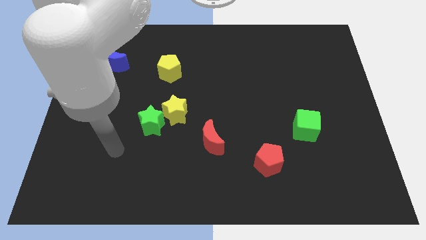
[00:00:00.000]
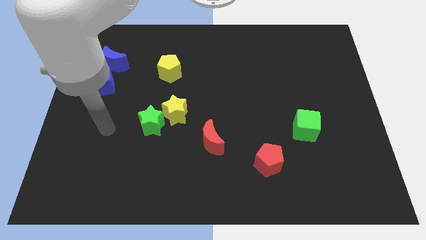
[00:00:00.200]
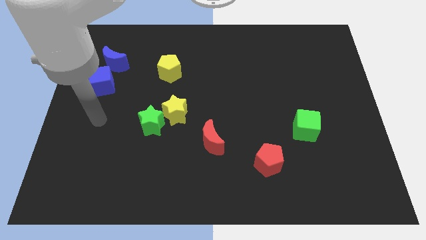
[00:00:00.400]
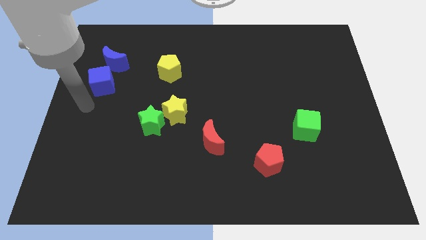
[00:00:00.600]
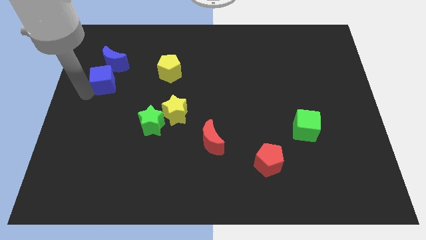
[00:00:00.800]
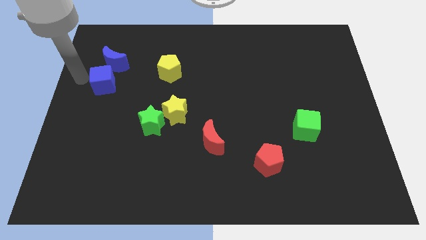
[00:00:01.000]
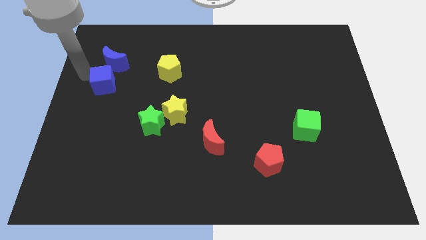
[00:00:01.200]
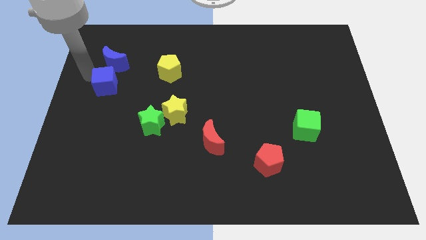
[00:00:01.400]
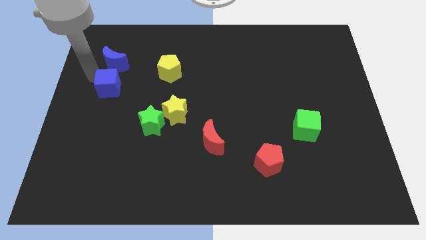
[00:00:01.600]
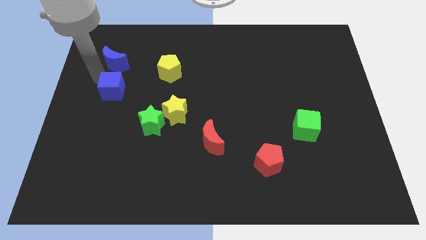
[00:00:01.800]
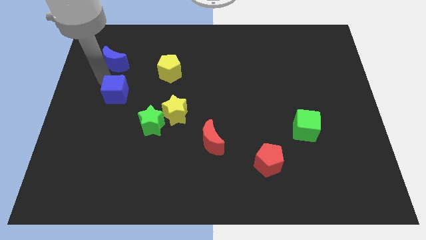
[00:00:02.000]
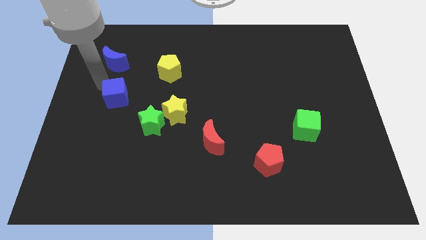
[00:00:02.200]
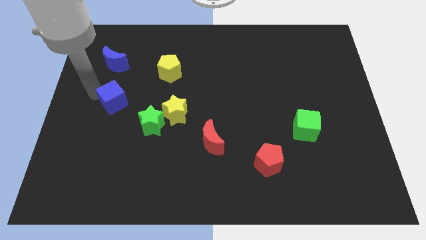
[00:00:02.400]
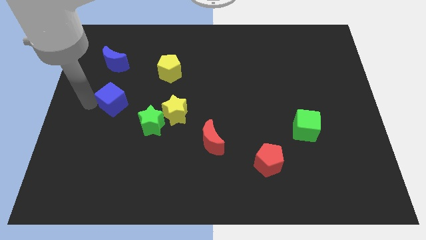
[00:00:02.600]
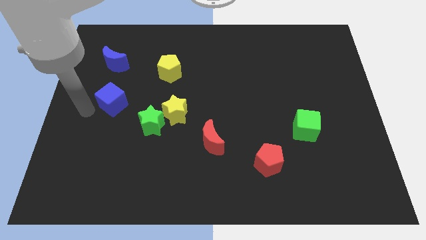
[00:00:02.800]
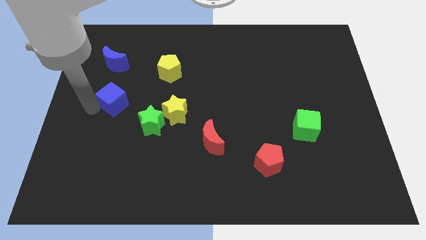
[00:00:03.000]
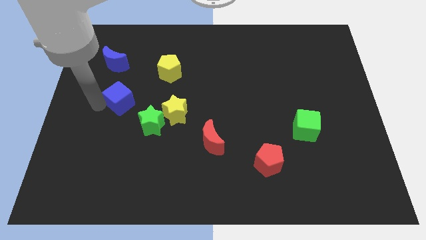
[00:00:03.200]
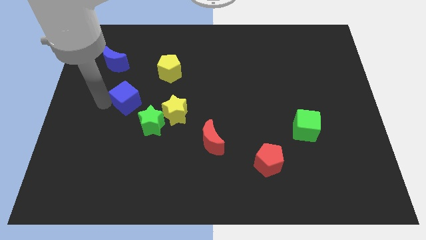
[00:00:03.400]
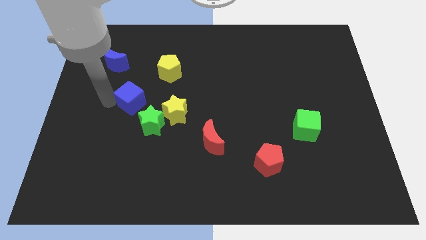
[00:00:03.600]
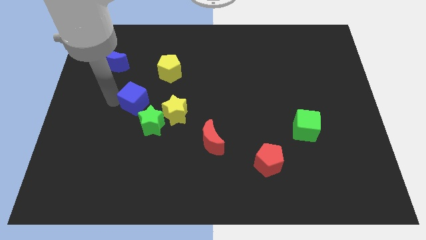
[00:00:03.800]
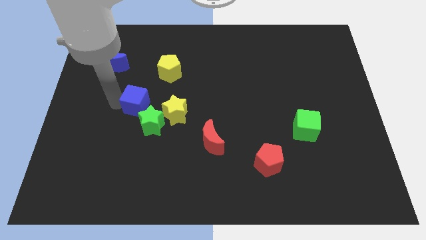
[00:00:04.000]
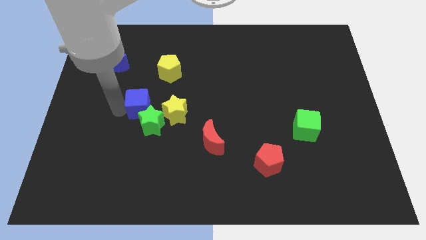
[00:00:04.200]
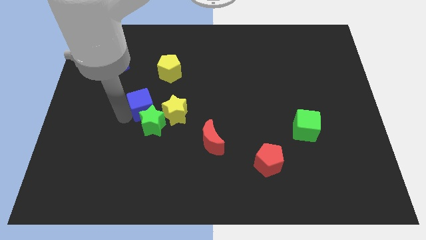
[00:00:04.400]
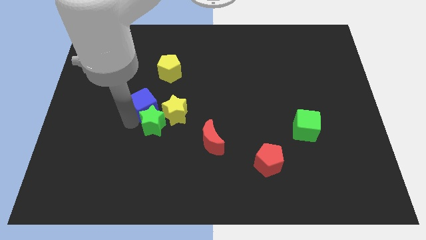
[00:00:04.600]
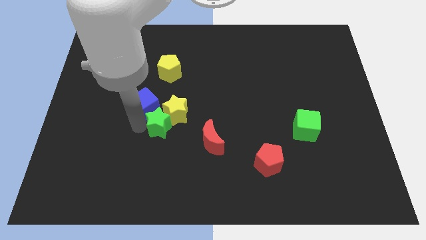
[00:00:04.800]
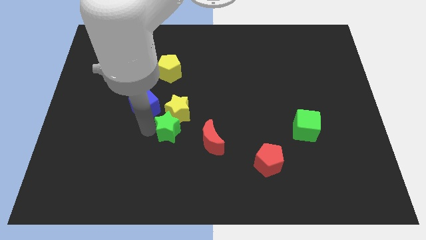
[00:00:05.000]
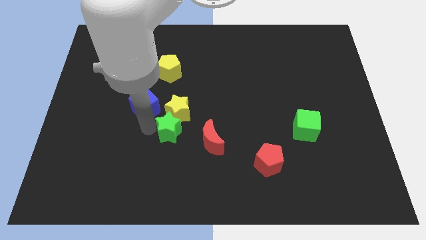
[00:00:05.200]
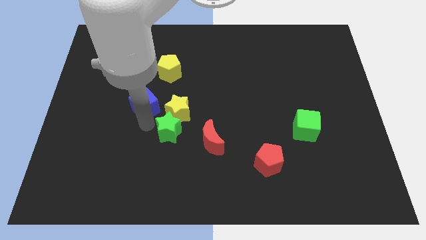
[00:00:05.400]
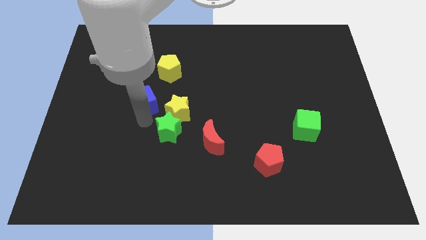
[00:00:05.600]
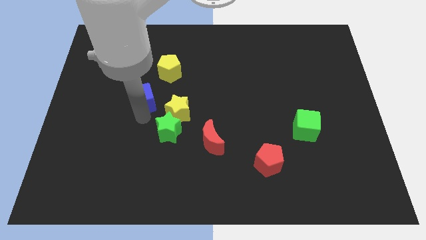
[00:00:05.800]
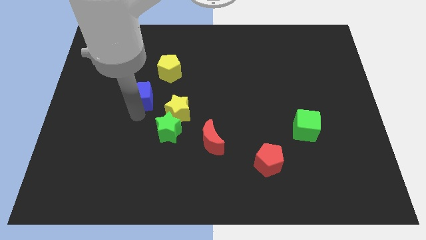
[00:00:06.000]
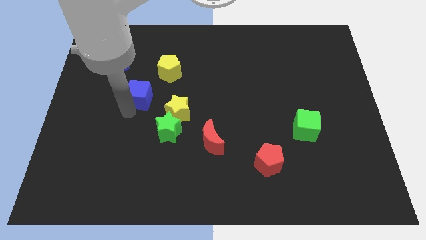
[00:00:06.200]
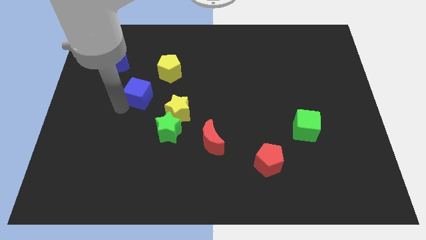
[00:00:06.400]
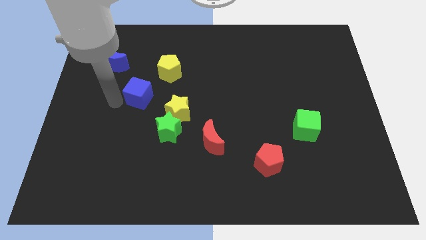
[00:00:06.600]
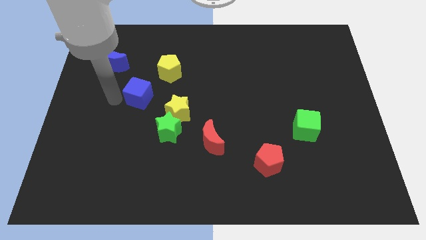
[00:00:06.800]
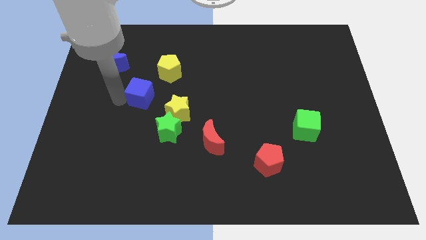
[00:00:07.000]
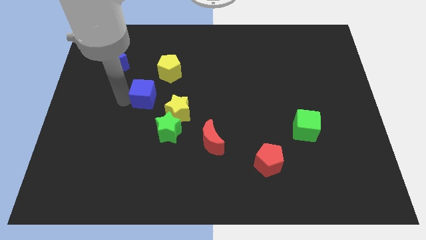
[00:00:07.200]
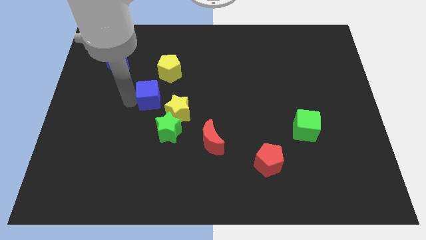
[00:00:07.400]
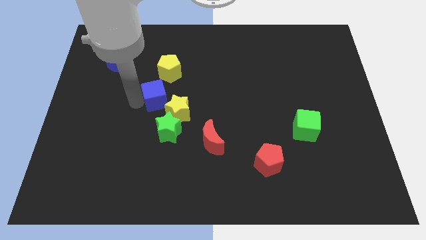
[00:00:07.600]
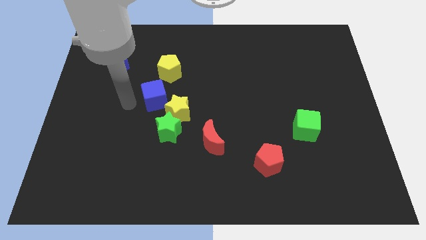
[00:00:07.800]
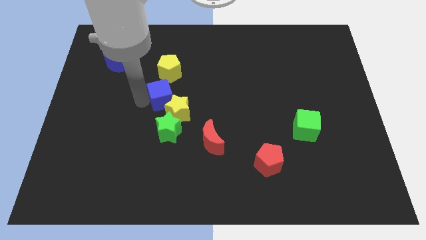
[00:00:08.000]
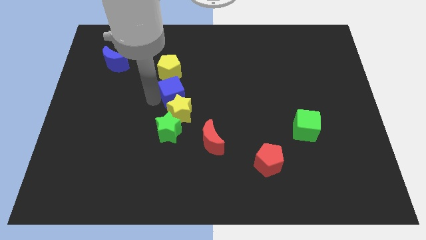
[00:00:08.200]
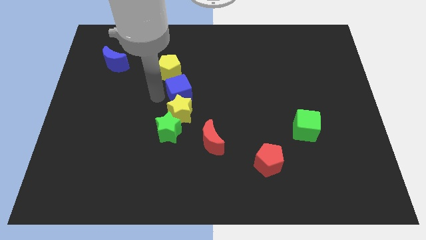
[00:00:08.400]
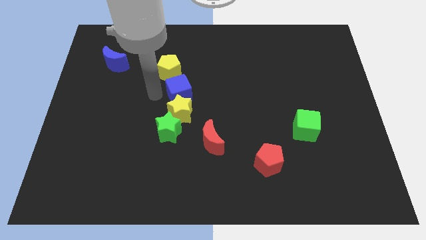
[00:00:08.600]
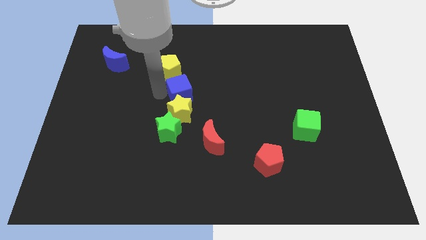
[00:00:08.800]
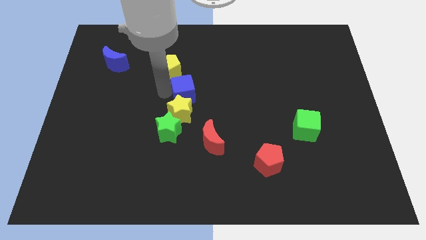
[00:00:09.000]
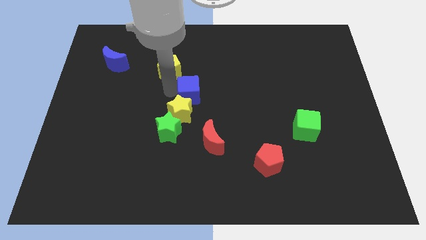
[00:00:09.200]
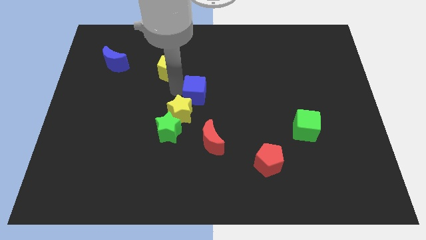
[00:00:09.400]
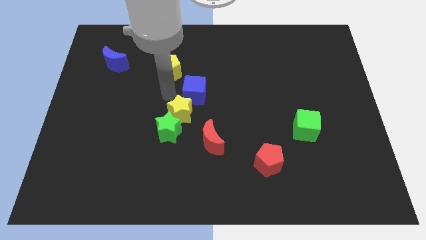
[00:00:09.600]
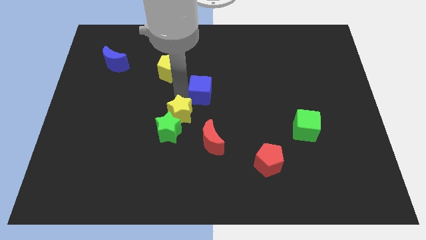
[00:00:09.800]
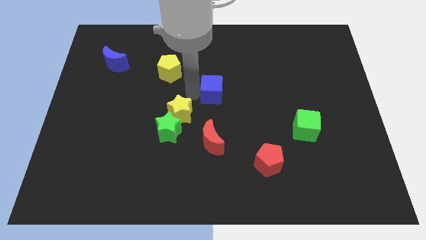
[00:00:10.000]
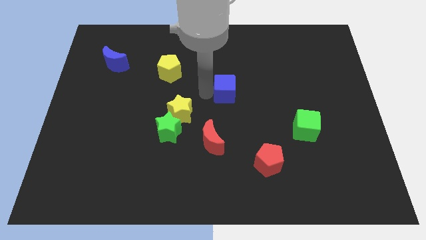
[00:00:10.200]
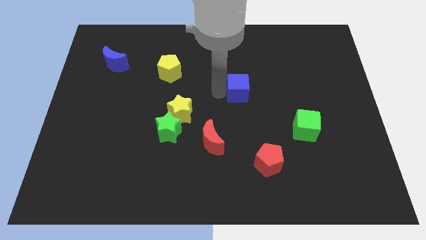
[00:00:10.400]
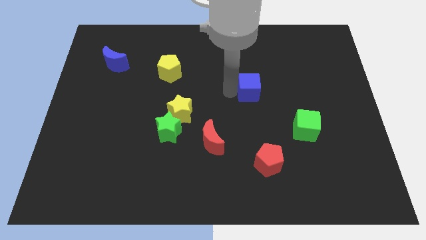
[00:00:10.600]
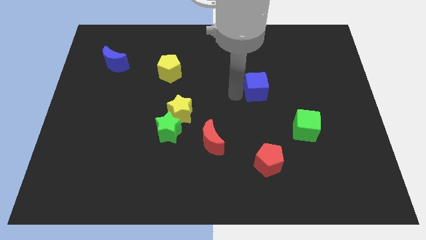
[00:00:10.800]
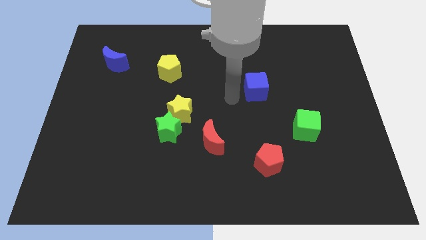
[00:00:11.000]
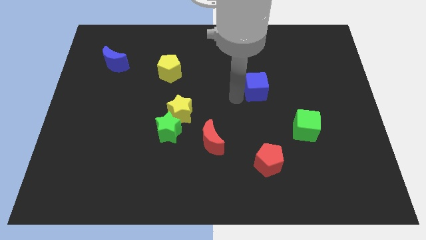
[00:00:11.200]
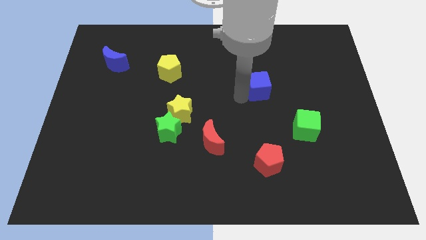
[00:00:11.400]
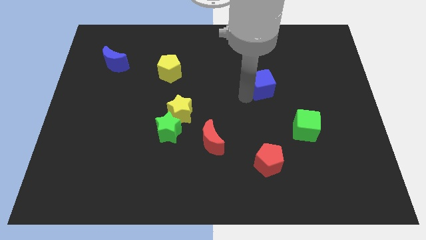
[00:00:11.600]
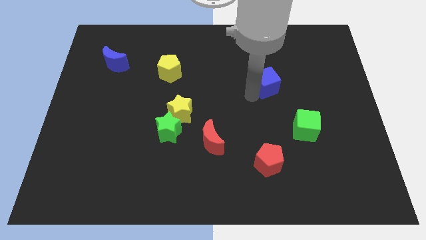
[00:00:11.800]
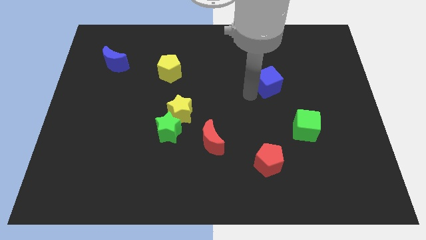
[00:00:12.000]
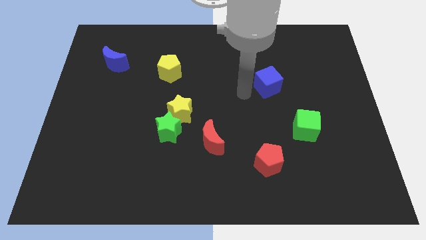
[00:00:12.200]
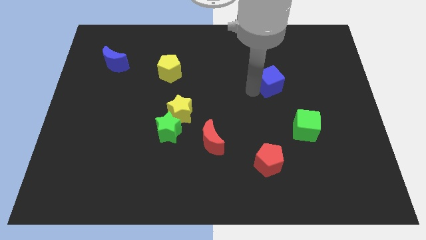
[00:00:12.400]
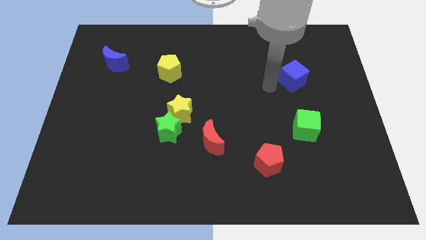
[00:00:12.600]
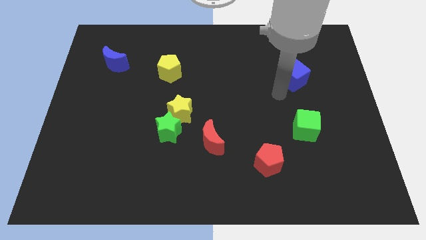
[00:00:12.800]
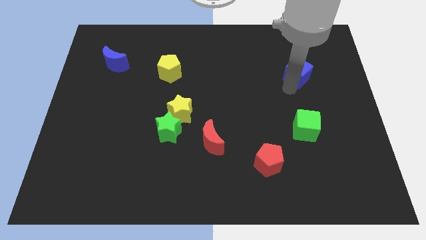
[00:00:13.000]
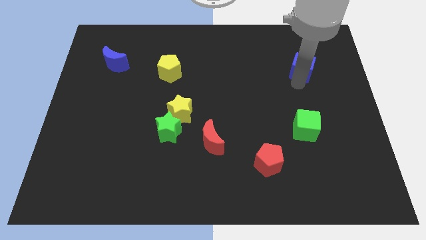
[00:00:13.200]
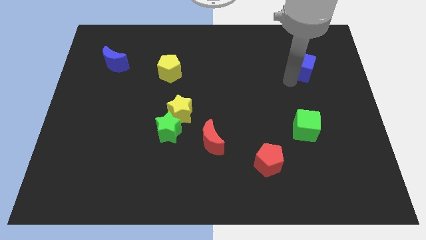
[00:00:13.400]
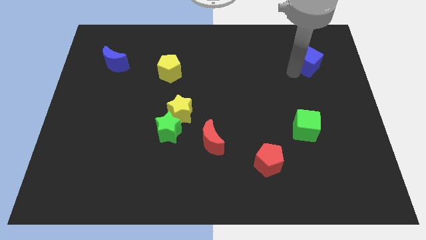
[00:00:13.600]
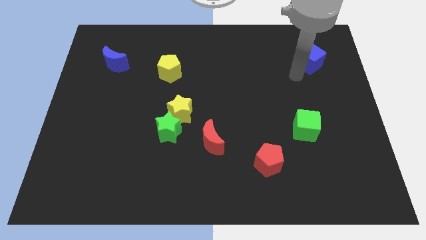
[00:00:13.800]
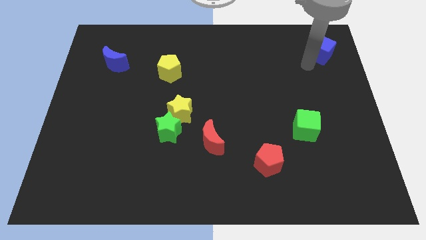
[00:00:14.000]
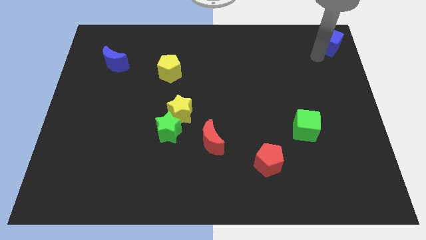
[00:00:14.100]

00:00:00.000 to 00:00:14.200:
push the blue cube to the top right of the board
